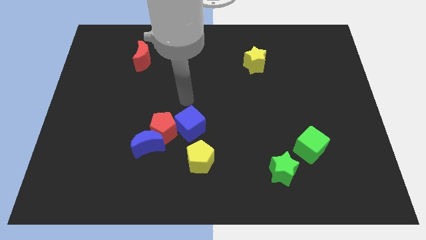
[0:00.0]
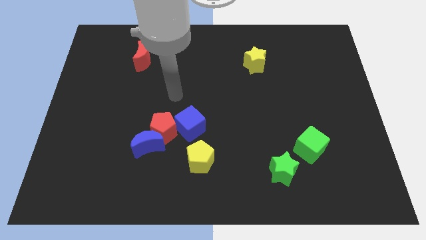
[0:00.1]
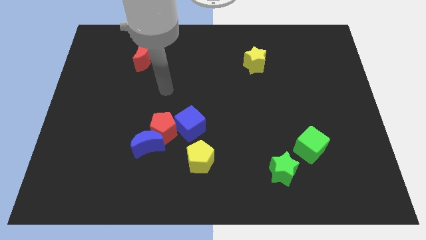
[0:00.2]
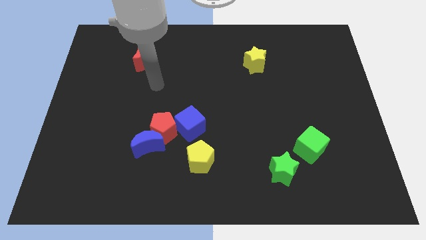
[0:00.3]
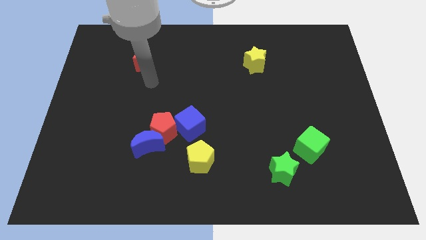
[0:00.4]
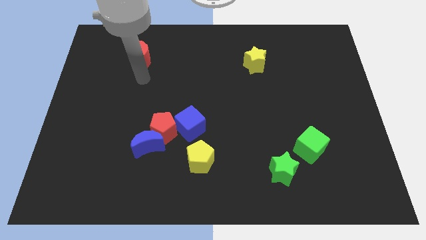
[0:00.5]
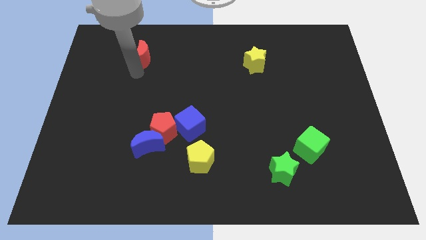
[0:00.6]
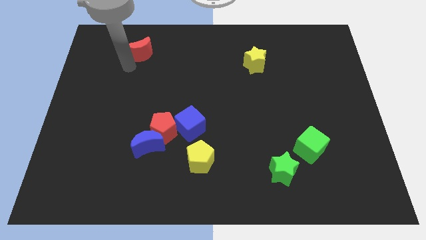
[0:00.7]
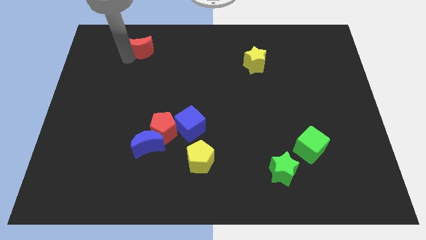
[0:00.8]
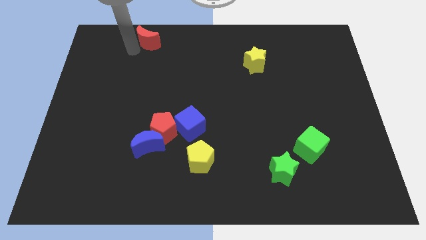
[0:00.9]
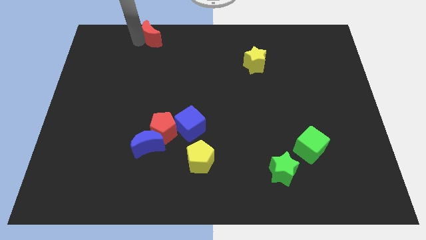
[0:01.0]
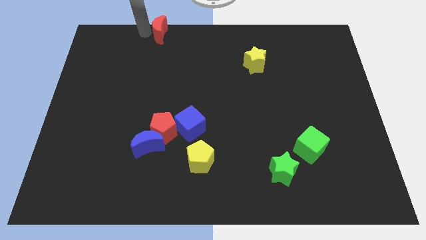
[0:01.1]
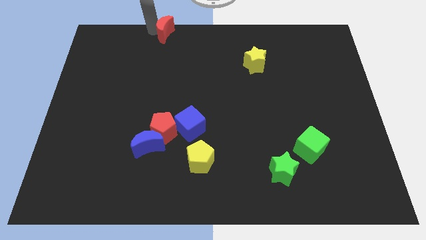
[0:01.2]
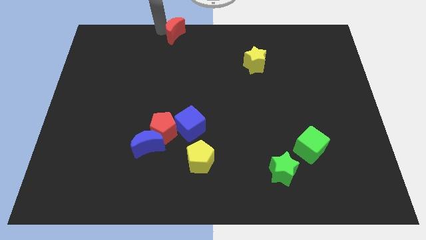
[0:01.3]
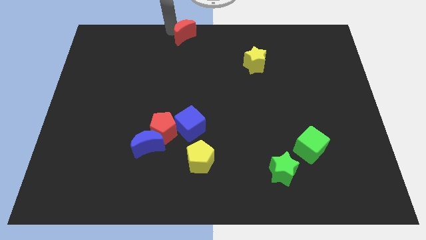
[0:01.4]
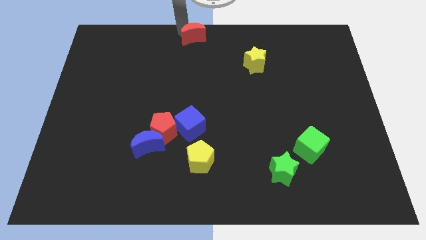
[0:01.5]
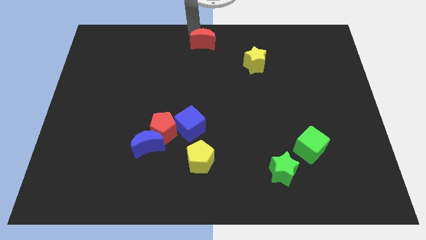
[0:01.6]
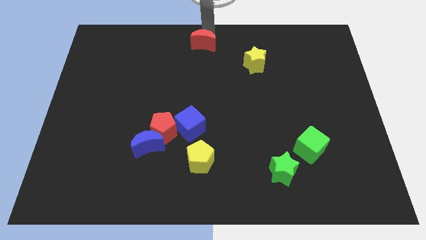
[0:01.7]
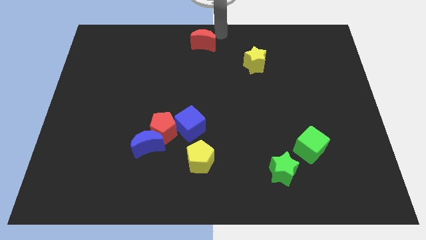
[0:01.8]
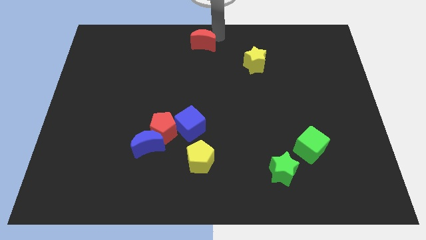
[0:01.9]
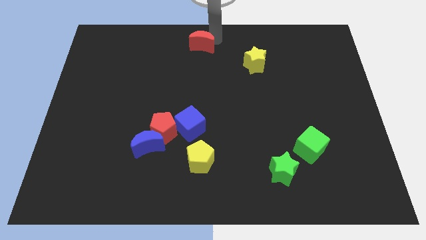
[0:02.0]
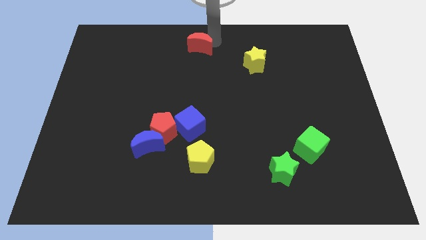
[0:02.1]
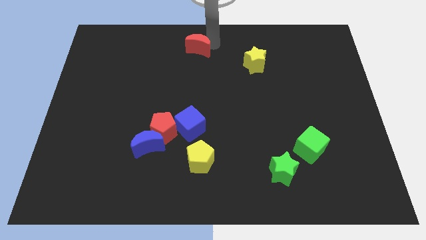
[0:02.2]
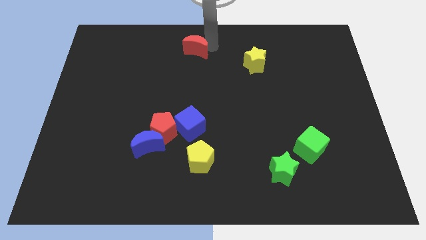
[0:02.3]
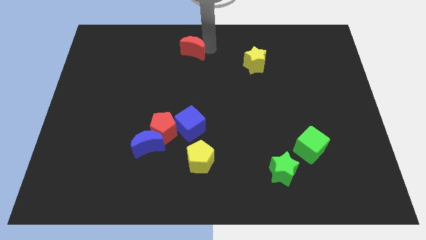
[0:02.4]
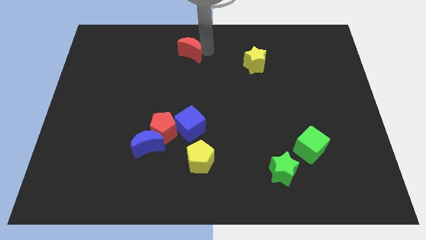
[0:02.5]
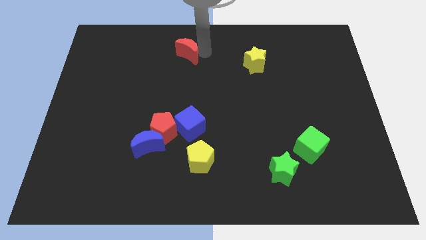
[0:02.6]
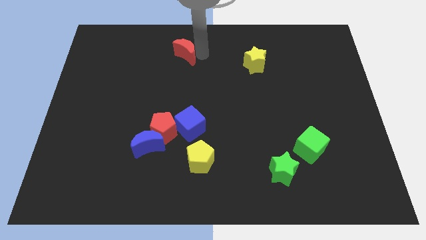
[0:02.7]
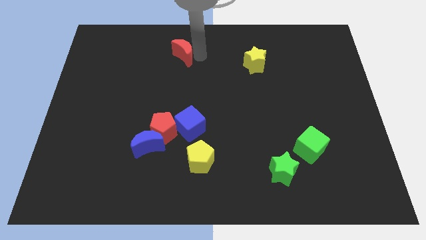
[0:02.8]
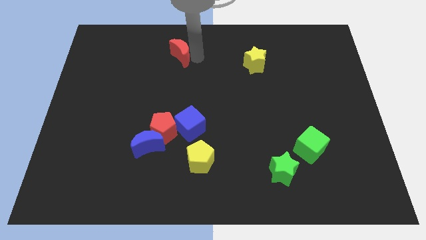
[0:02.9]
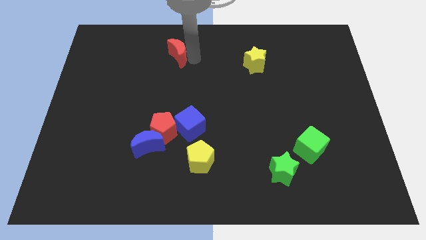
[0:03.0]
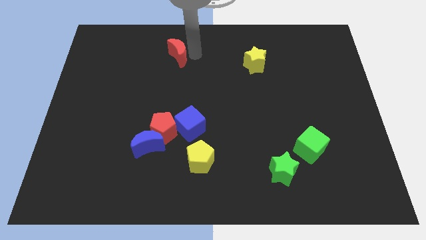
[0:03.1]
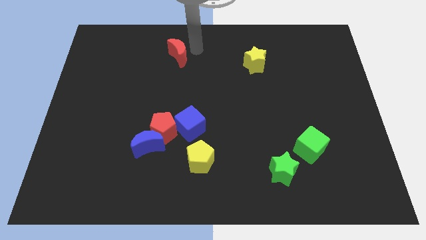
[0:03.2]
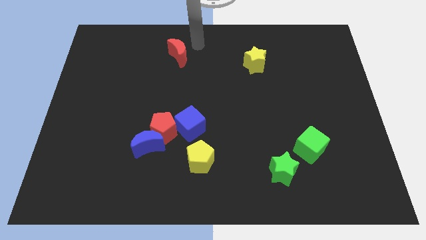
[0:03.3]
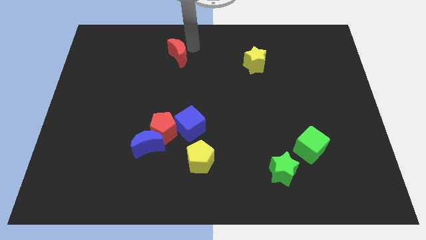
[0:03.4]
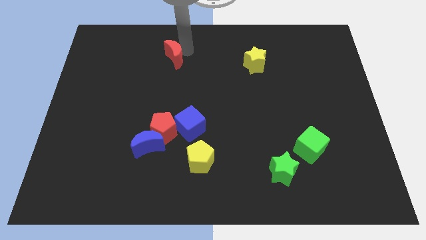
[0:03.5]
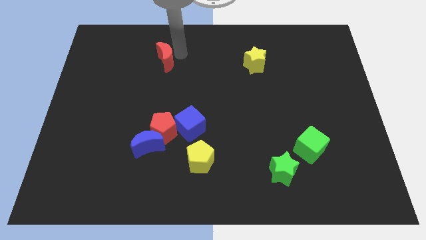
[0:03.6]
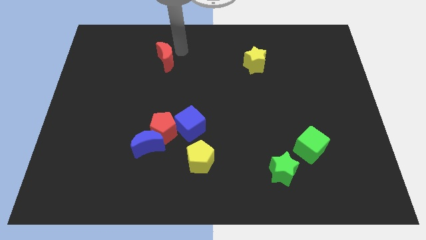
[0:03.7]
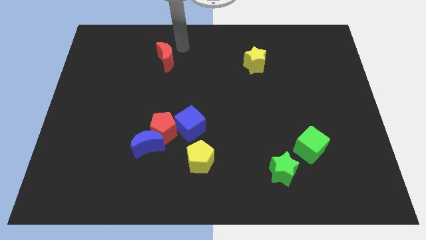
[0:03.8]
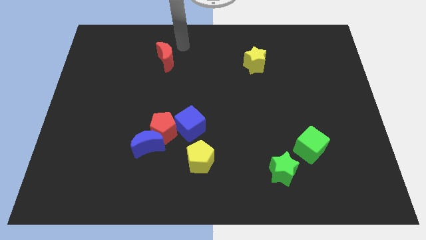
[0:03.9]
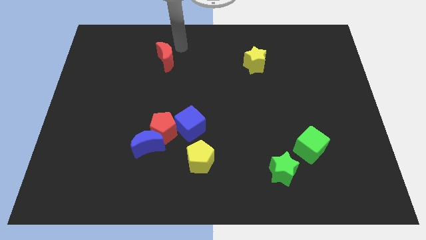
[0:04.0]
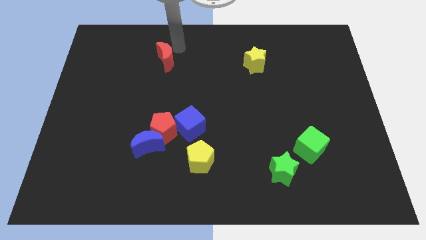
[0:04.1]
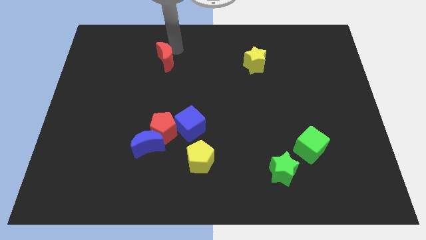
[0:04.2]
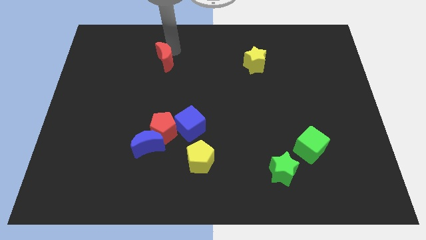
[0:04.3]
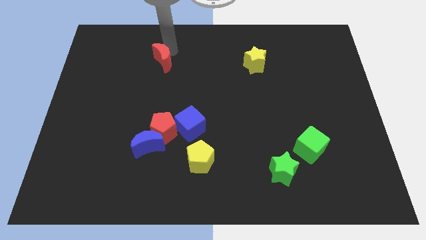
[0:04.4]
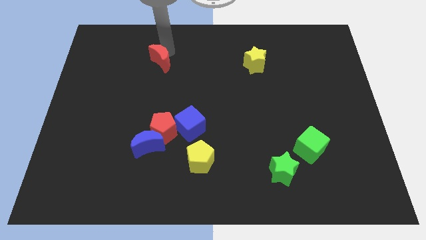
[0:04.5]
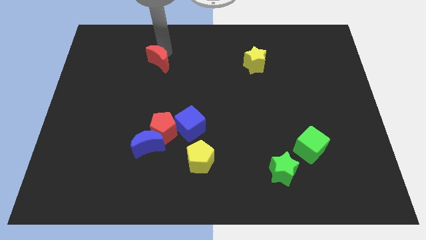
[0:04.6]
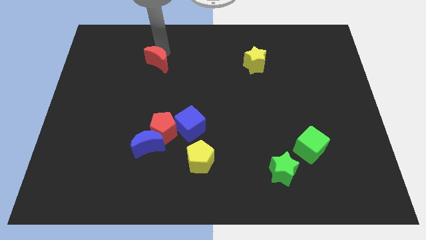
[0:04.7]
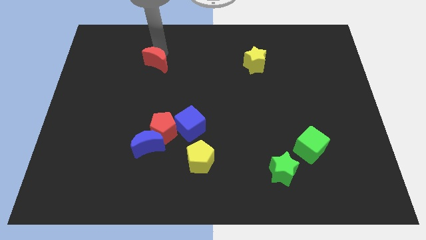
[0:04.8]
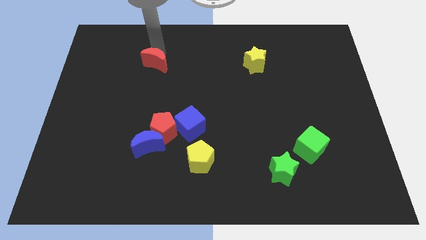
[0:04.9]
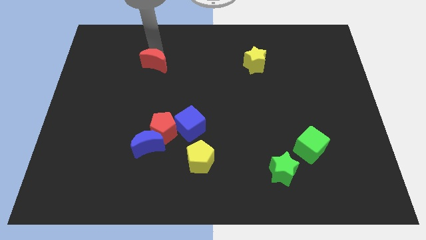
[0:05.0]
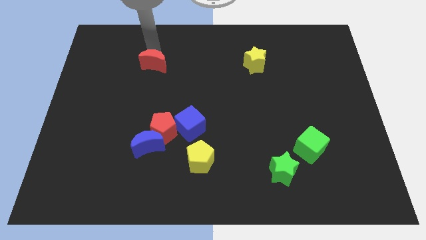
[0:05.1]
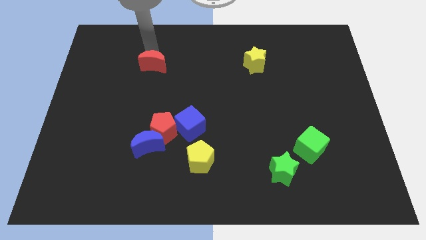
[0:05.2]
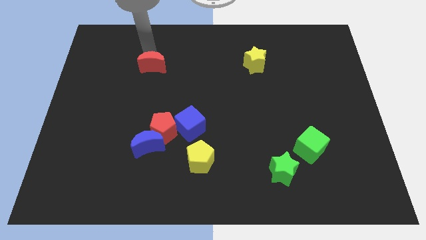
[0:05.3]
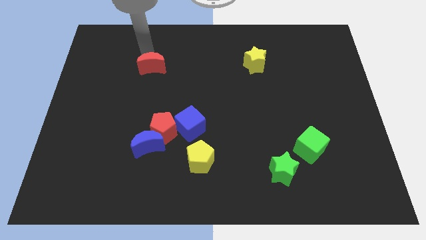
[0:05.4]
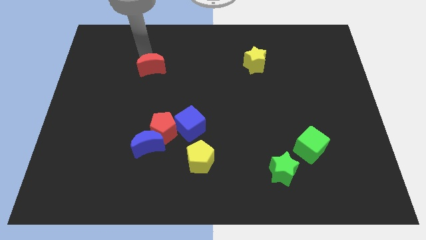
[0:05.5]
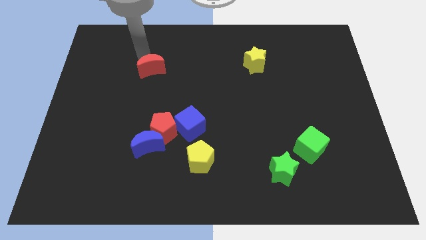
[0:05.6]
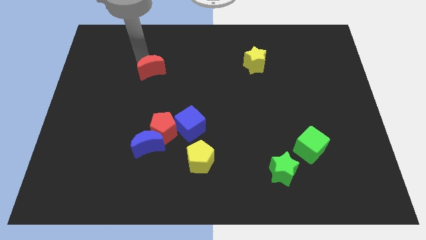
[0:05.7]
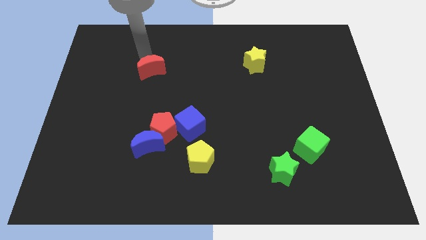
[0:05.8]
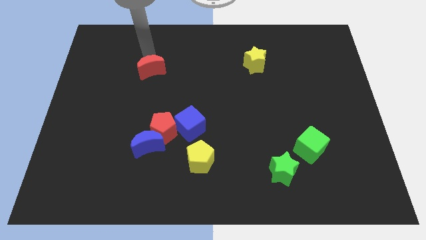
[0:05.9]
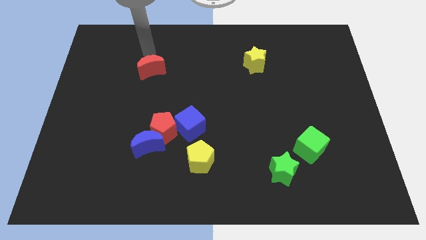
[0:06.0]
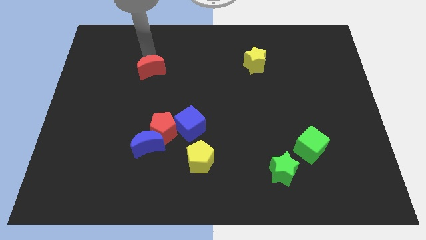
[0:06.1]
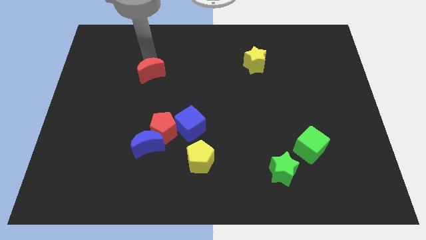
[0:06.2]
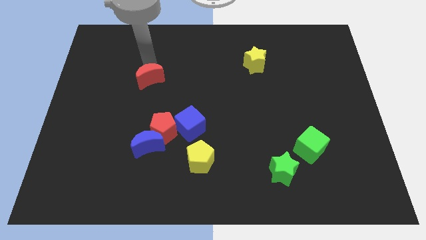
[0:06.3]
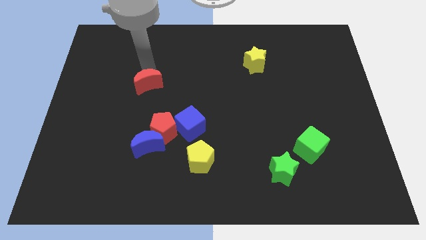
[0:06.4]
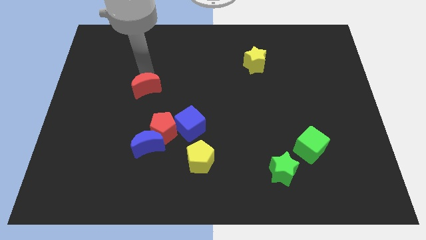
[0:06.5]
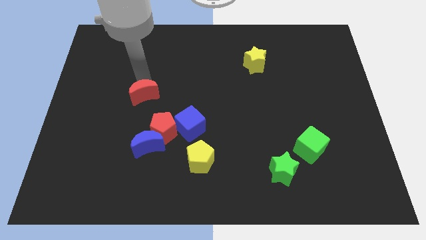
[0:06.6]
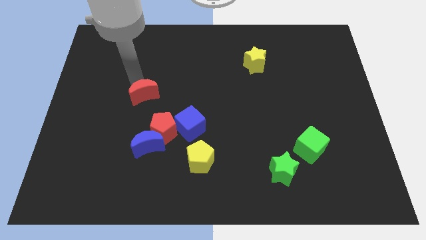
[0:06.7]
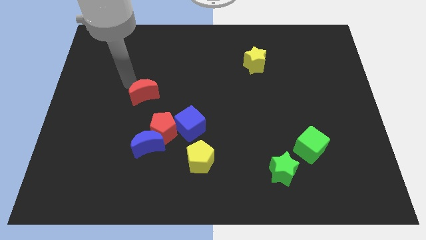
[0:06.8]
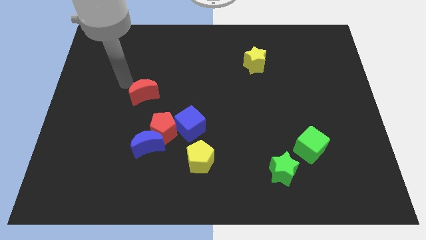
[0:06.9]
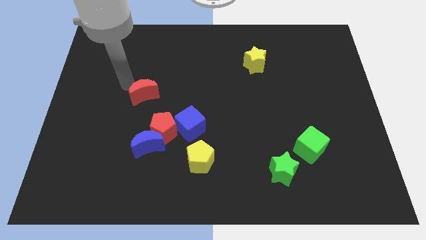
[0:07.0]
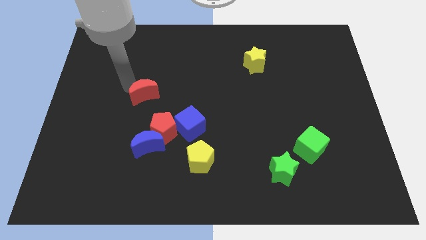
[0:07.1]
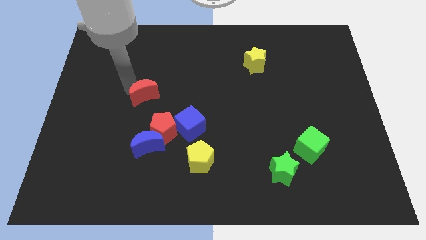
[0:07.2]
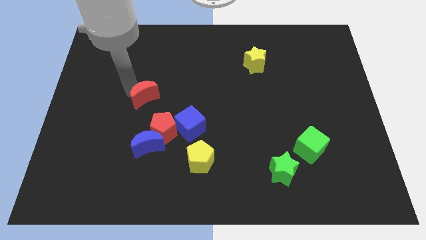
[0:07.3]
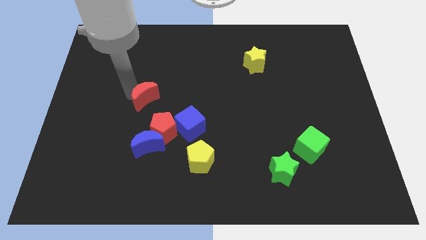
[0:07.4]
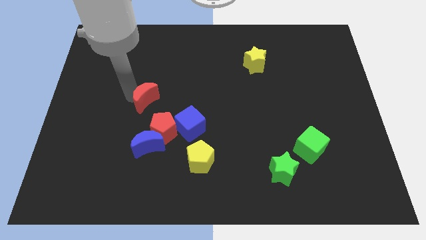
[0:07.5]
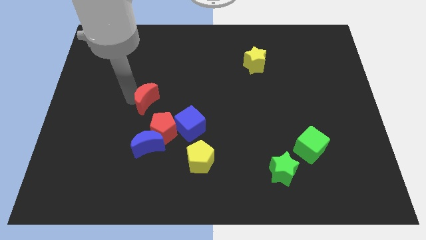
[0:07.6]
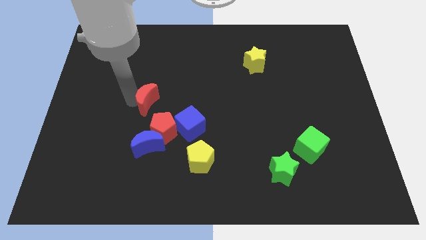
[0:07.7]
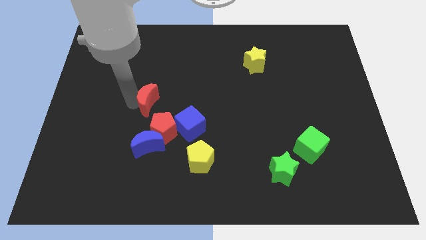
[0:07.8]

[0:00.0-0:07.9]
slide the red moon to the top left of the blue cube
